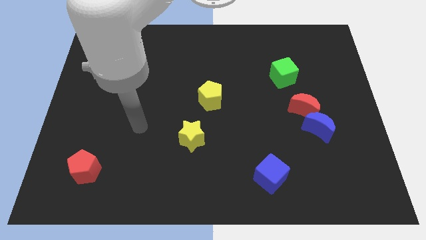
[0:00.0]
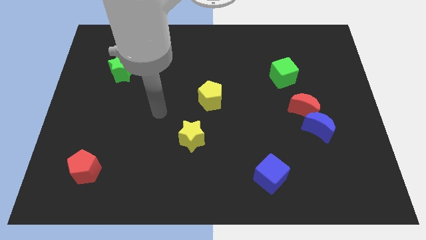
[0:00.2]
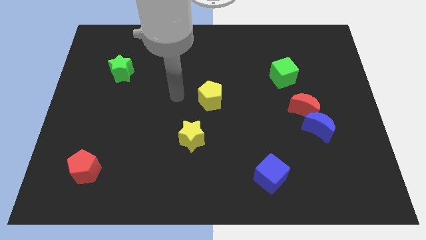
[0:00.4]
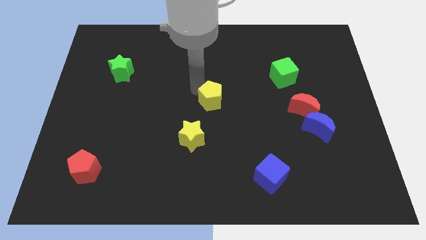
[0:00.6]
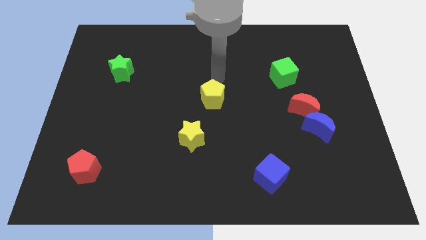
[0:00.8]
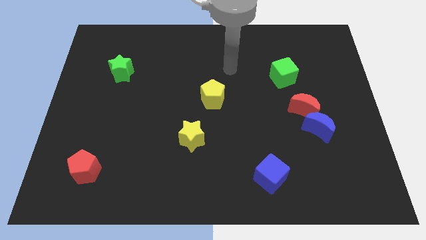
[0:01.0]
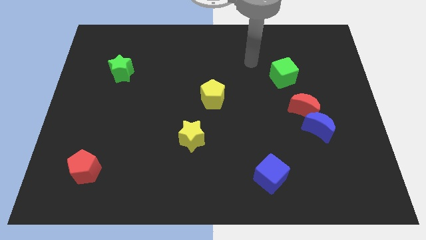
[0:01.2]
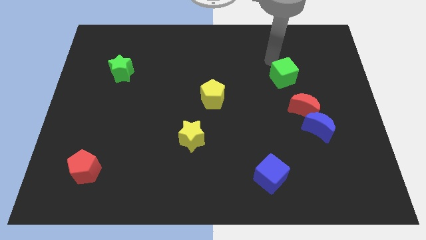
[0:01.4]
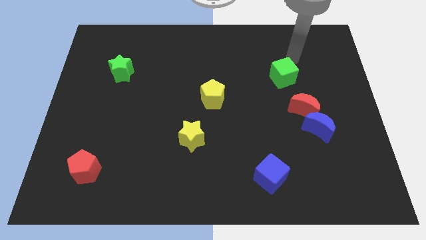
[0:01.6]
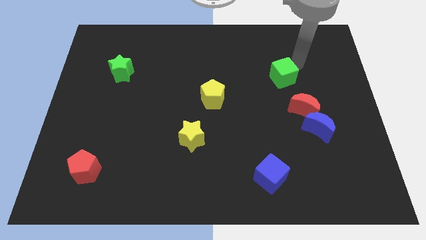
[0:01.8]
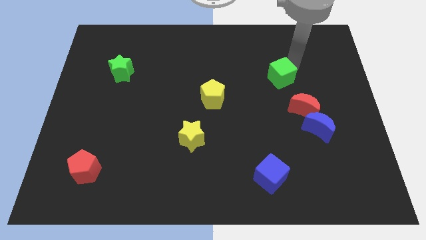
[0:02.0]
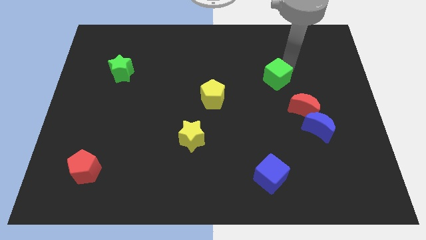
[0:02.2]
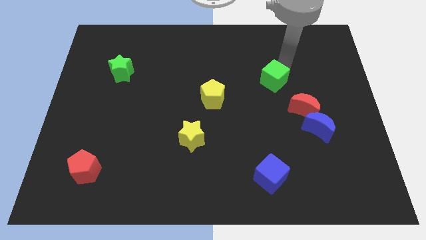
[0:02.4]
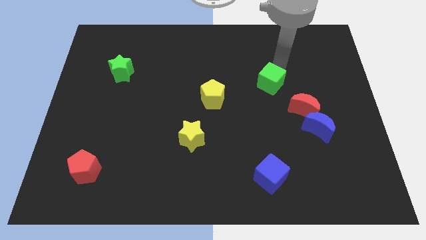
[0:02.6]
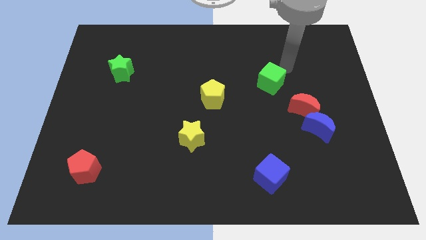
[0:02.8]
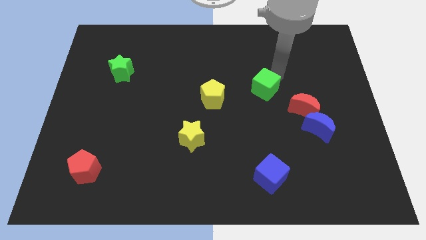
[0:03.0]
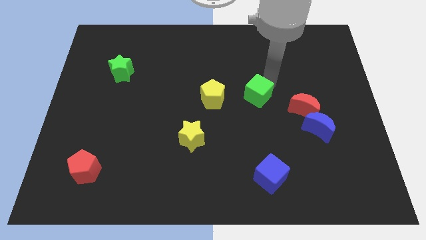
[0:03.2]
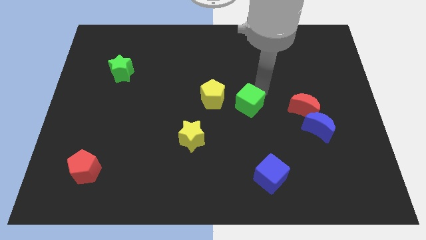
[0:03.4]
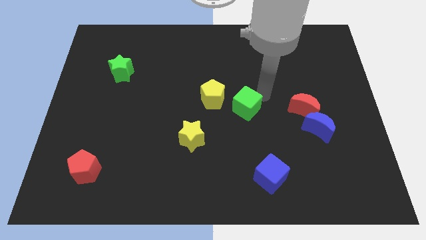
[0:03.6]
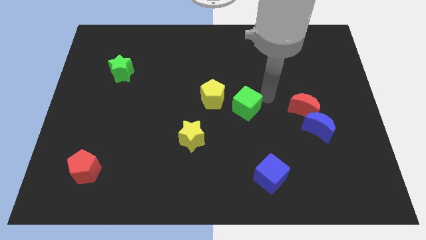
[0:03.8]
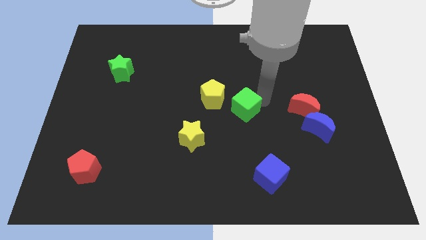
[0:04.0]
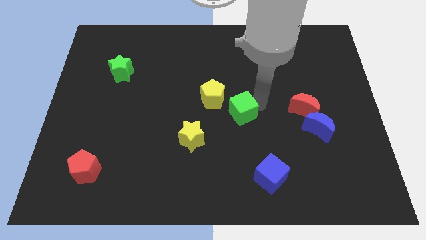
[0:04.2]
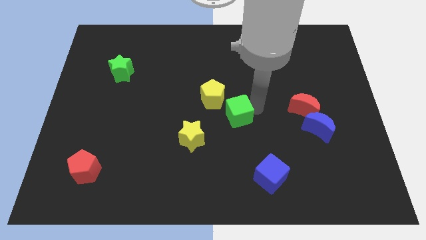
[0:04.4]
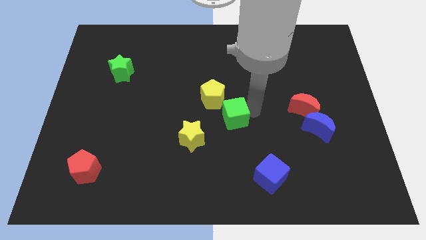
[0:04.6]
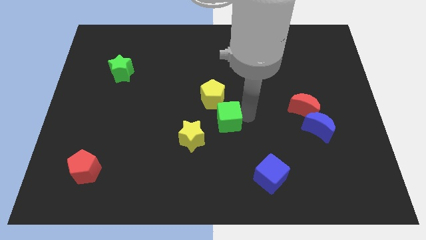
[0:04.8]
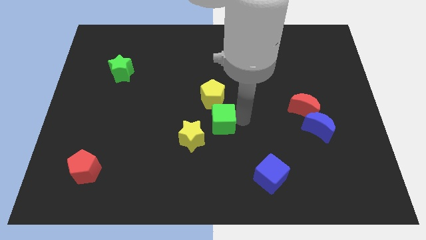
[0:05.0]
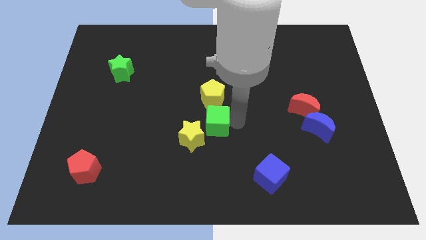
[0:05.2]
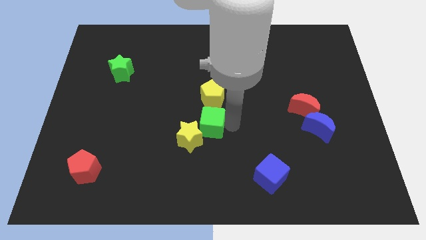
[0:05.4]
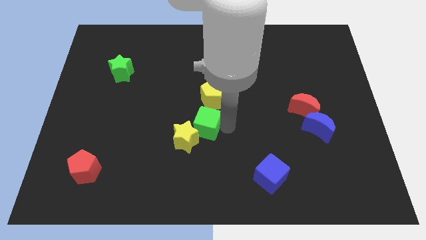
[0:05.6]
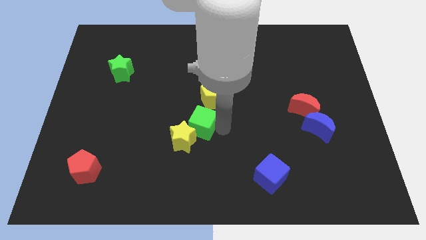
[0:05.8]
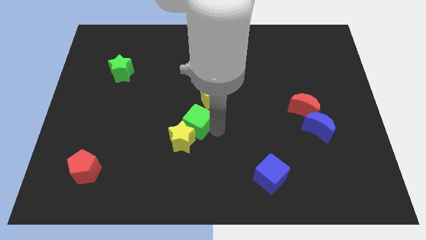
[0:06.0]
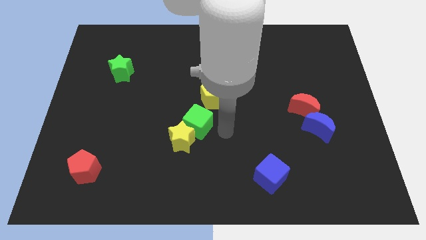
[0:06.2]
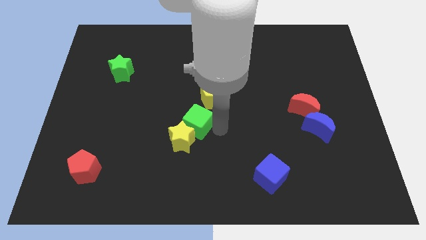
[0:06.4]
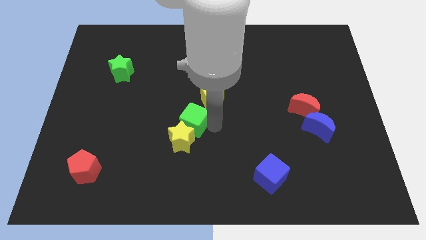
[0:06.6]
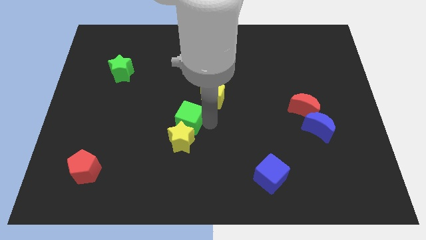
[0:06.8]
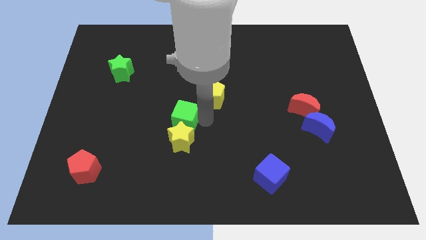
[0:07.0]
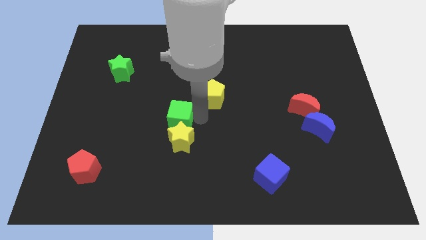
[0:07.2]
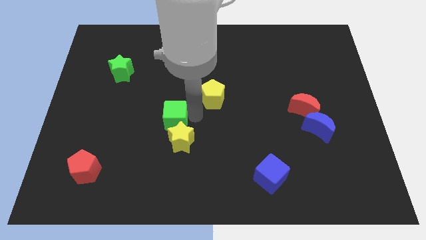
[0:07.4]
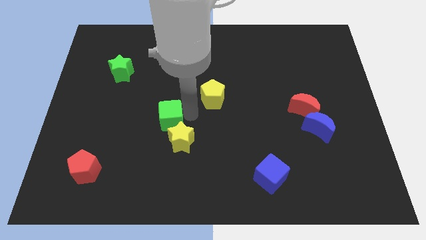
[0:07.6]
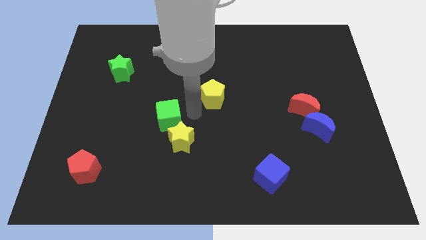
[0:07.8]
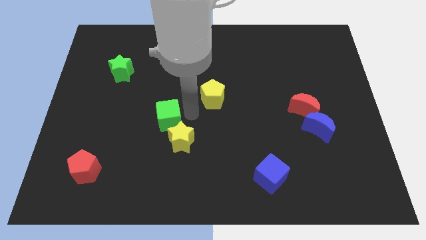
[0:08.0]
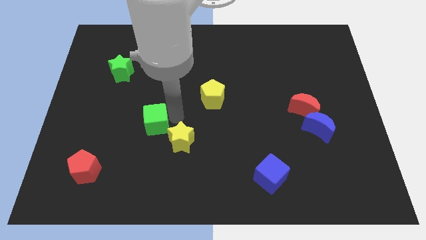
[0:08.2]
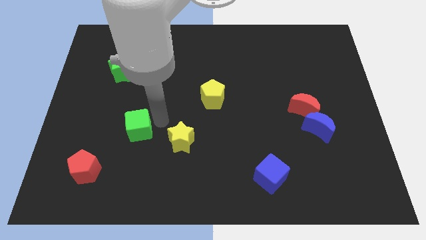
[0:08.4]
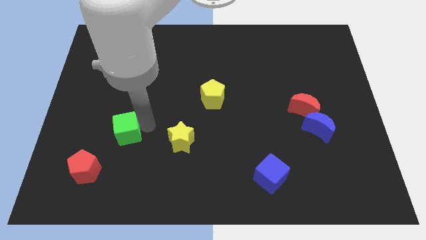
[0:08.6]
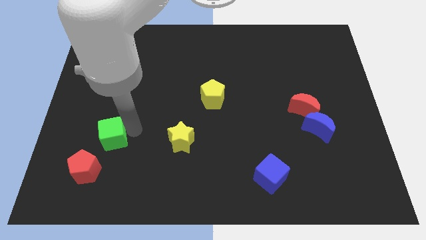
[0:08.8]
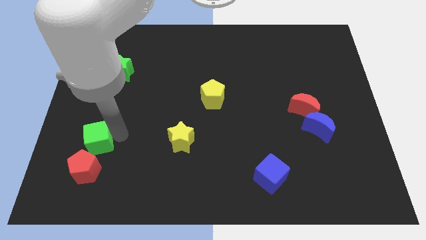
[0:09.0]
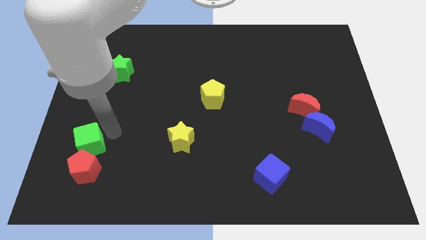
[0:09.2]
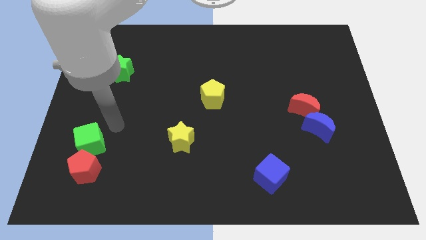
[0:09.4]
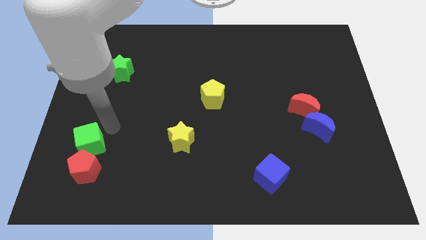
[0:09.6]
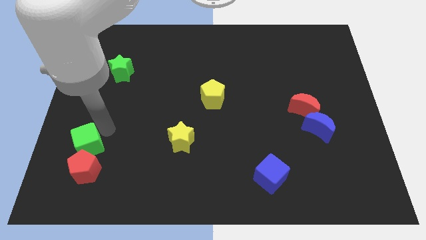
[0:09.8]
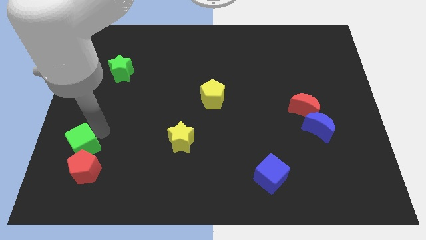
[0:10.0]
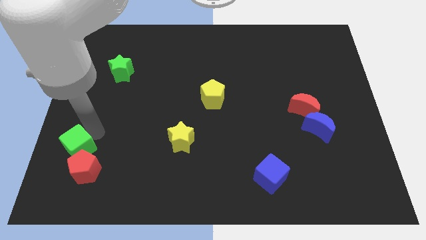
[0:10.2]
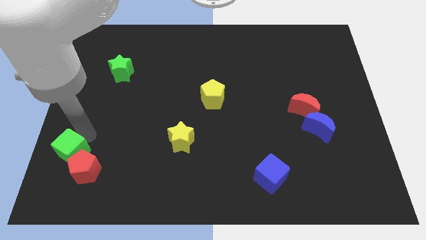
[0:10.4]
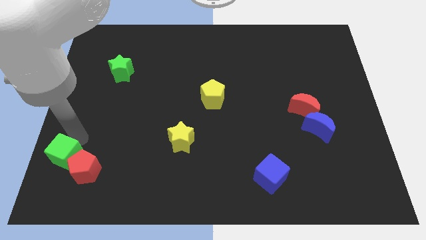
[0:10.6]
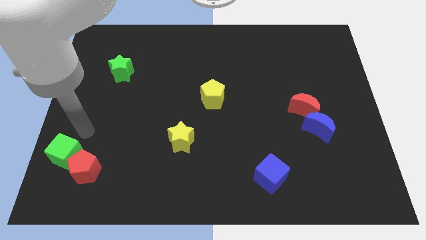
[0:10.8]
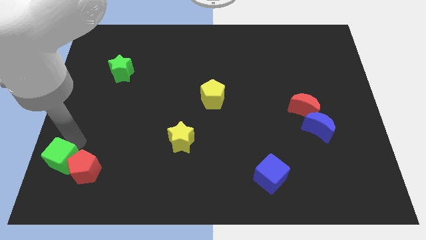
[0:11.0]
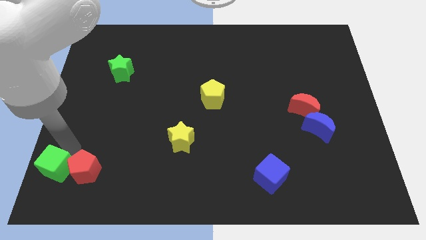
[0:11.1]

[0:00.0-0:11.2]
push the green cube to the bottom left of the board
